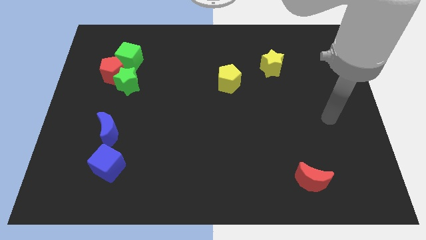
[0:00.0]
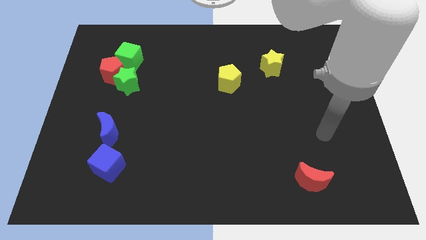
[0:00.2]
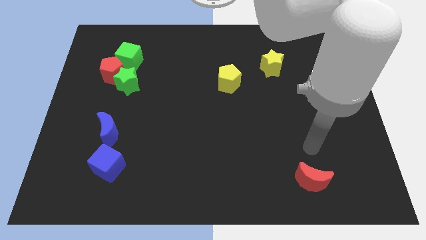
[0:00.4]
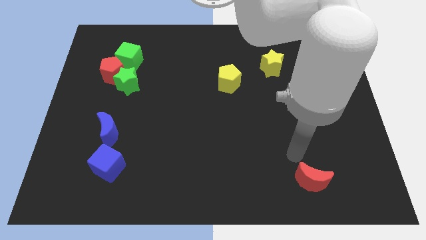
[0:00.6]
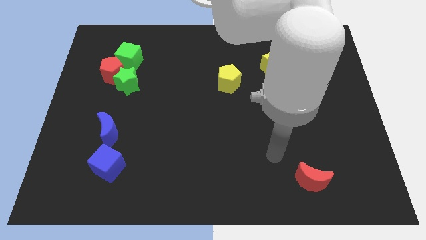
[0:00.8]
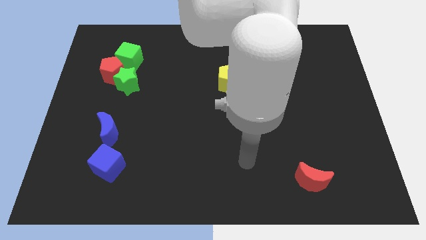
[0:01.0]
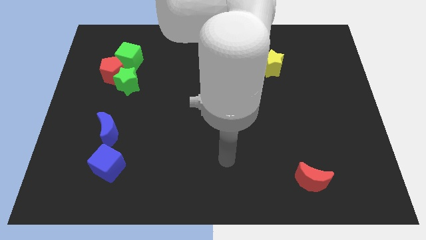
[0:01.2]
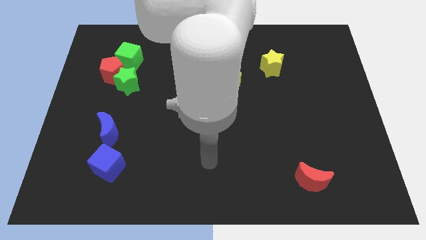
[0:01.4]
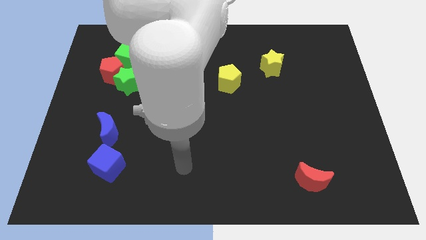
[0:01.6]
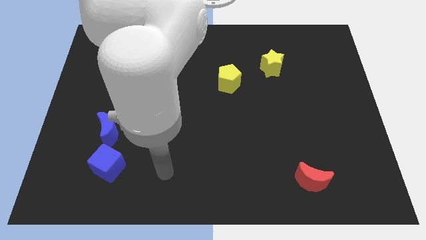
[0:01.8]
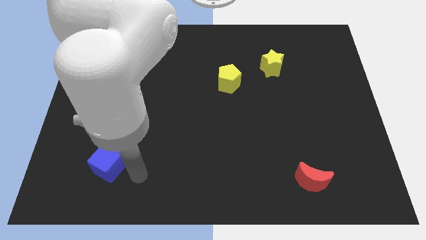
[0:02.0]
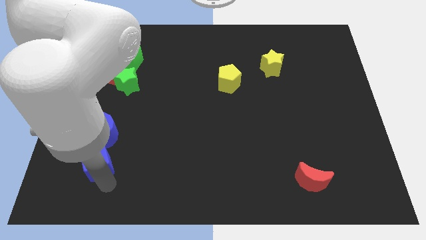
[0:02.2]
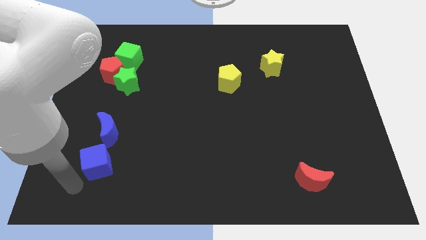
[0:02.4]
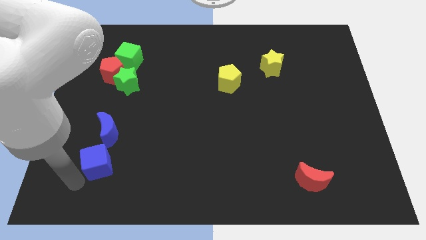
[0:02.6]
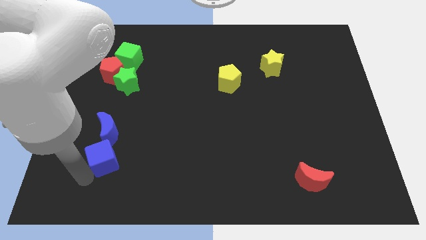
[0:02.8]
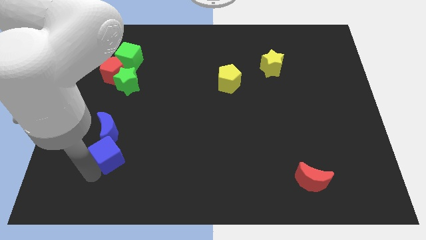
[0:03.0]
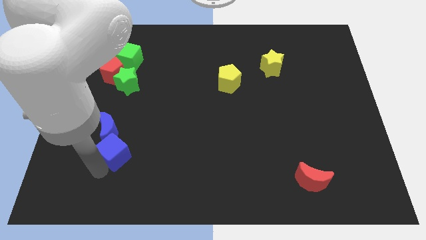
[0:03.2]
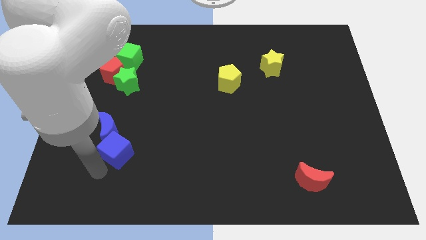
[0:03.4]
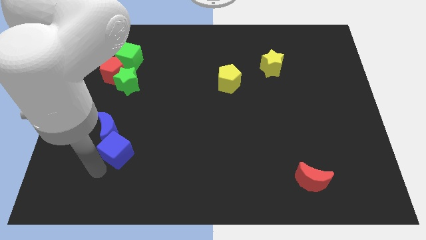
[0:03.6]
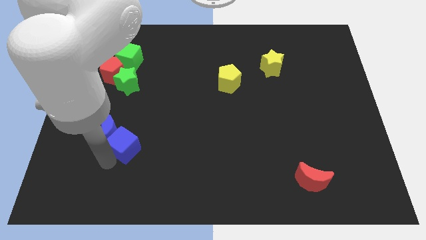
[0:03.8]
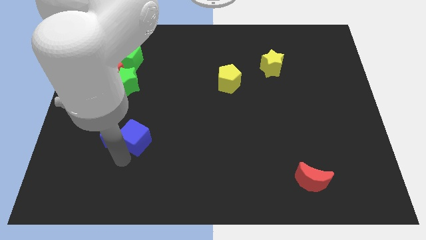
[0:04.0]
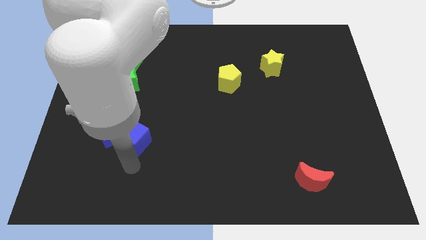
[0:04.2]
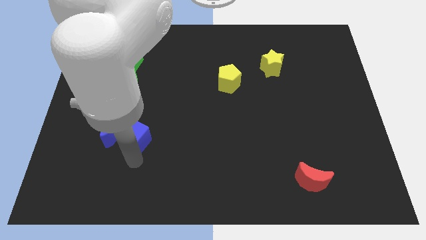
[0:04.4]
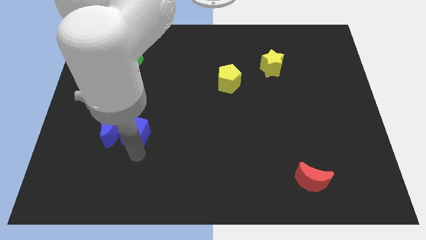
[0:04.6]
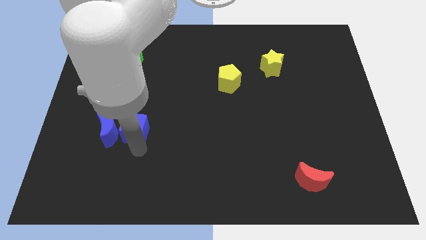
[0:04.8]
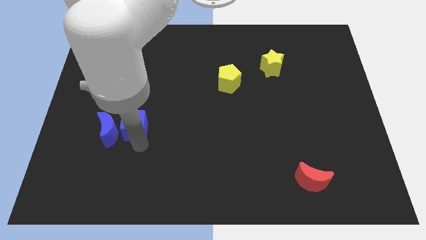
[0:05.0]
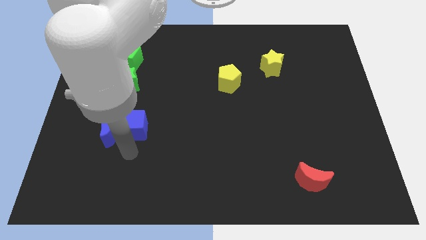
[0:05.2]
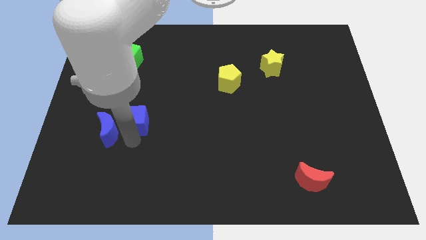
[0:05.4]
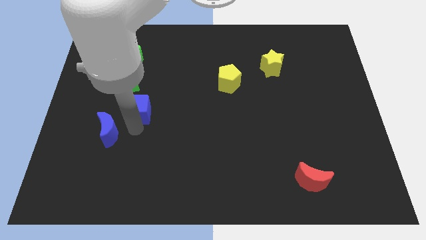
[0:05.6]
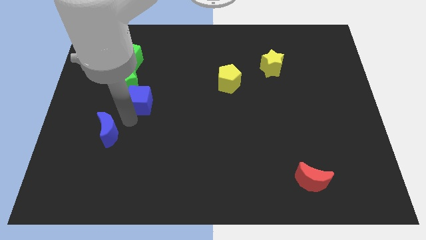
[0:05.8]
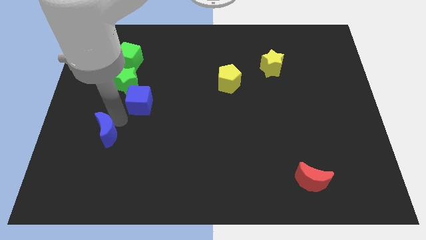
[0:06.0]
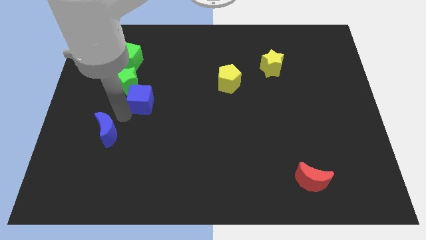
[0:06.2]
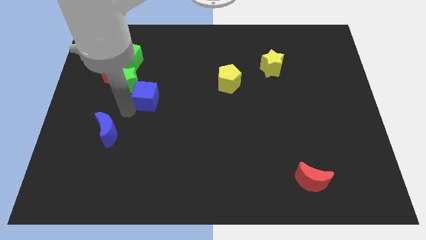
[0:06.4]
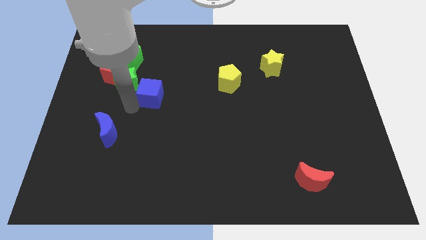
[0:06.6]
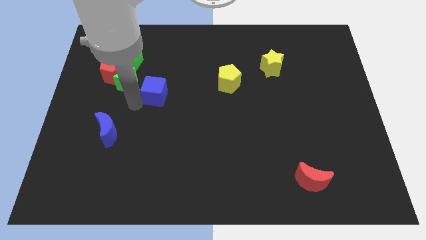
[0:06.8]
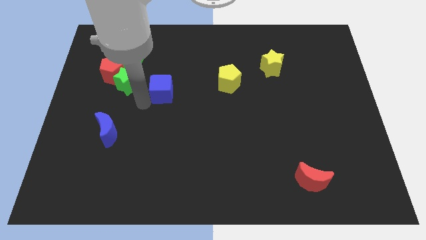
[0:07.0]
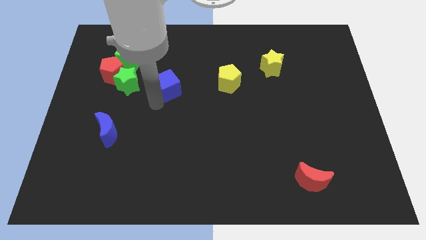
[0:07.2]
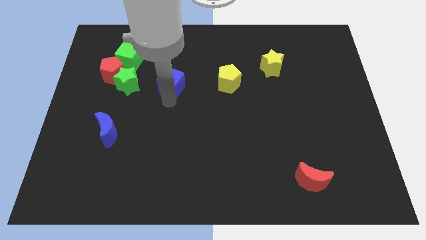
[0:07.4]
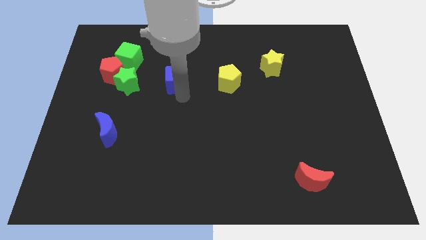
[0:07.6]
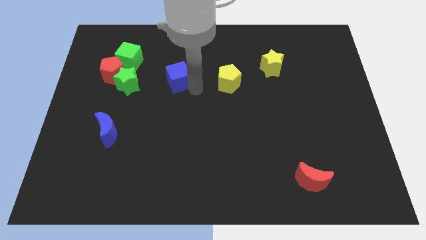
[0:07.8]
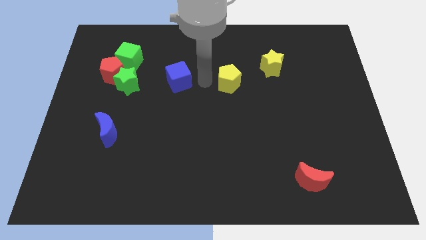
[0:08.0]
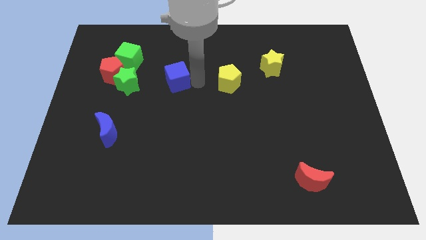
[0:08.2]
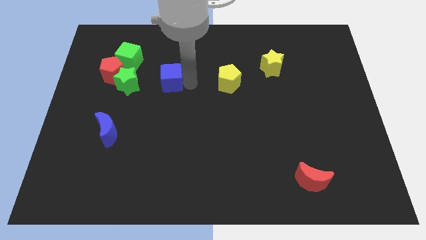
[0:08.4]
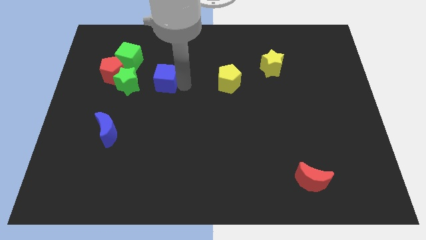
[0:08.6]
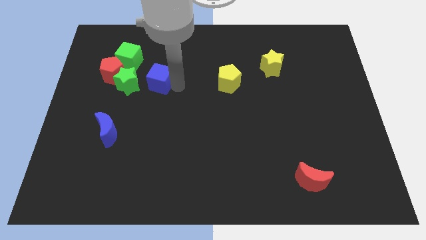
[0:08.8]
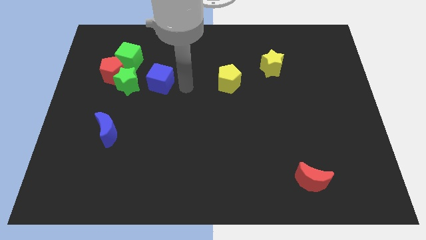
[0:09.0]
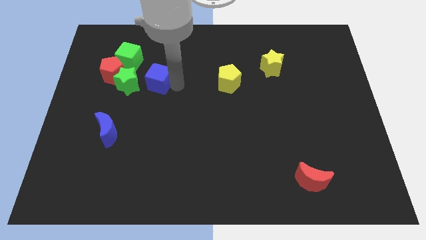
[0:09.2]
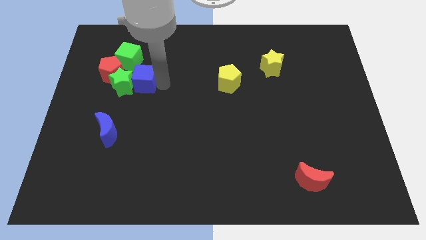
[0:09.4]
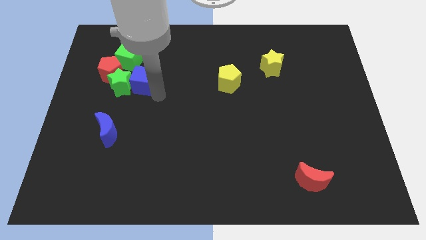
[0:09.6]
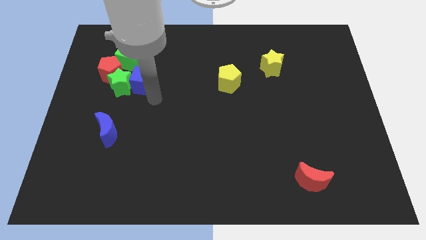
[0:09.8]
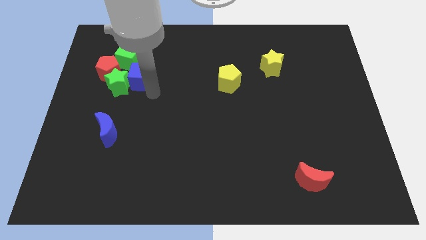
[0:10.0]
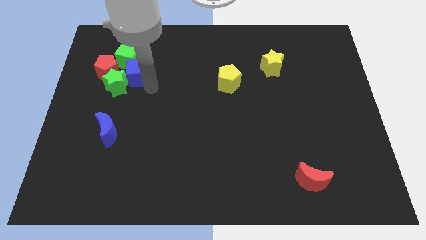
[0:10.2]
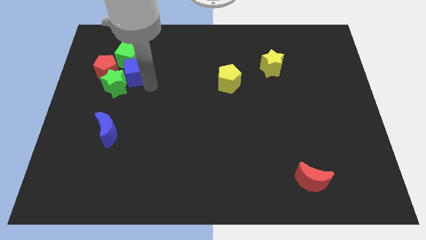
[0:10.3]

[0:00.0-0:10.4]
slide the blue cube towards the green cube

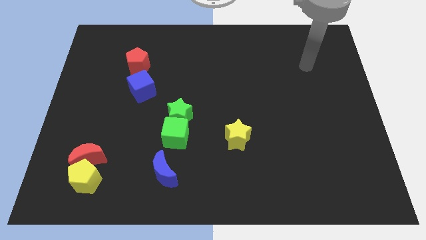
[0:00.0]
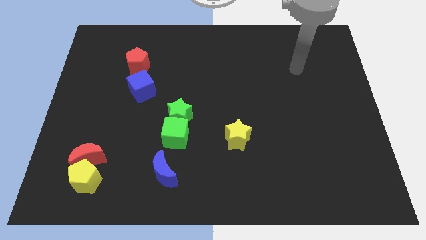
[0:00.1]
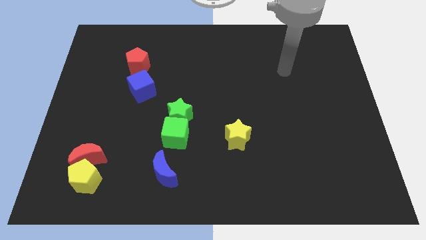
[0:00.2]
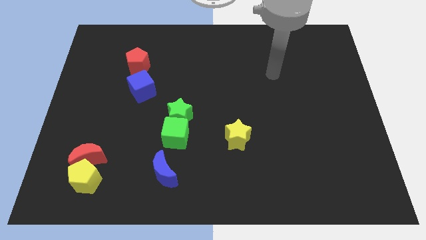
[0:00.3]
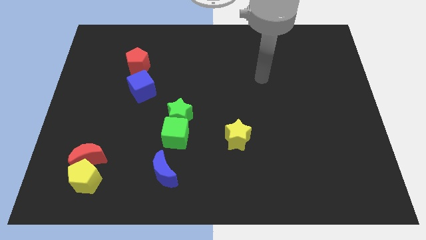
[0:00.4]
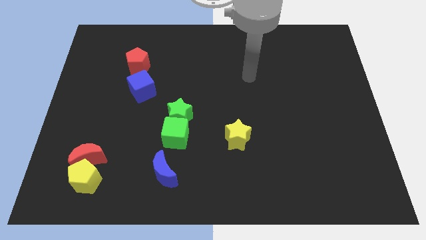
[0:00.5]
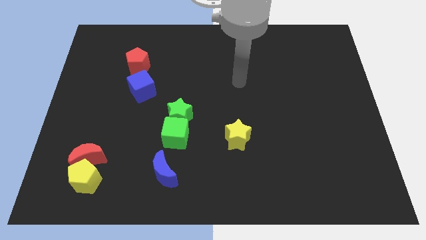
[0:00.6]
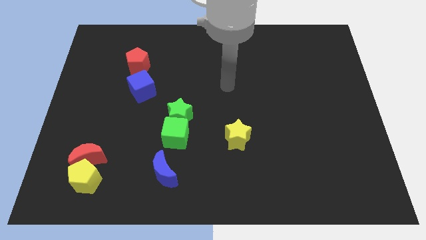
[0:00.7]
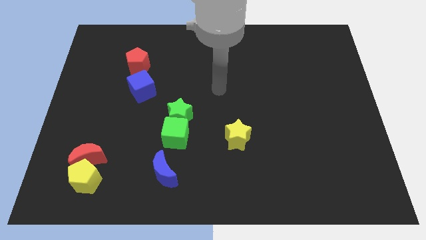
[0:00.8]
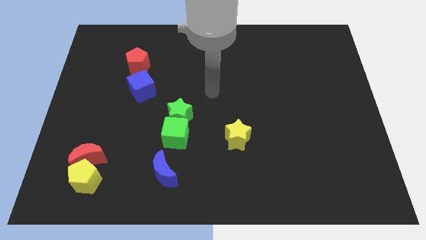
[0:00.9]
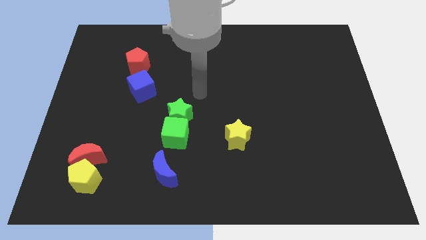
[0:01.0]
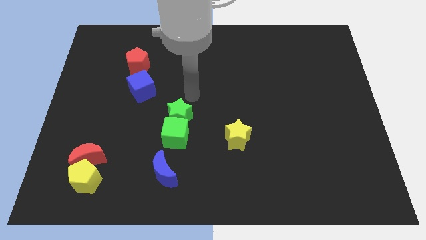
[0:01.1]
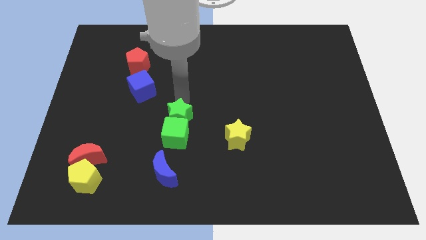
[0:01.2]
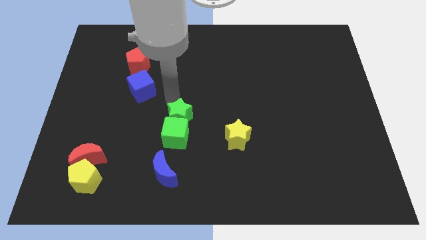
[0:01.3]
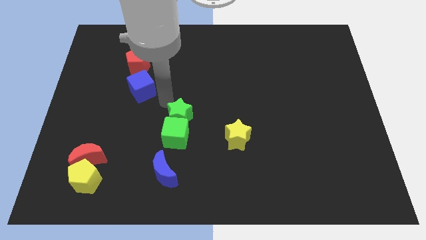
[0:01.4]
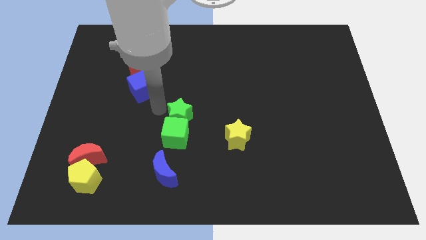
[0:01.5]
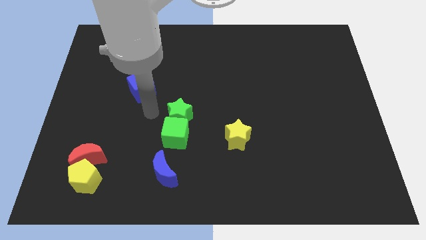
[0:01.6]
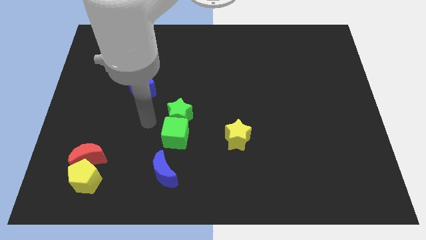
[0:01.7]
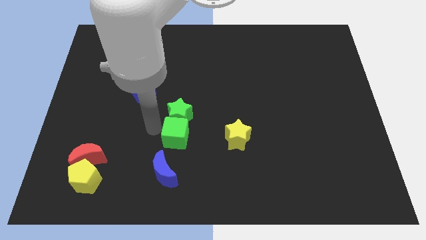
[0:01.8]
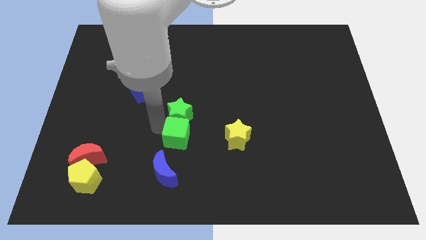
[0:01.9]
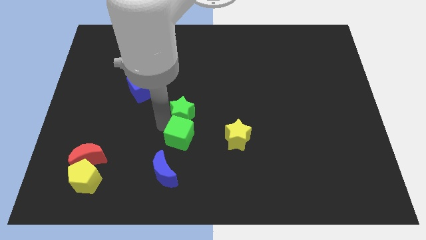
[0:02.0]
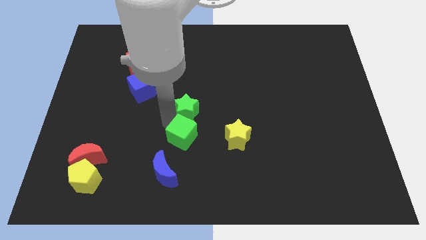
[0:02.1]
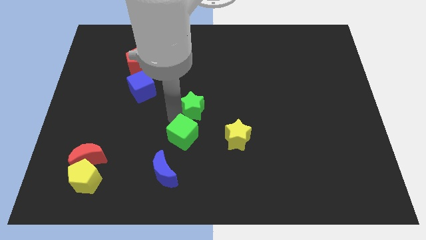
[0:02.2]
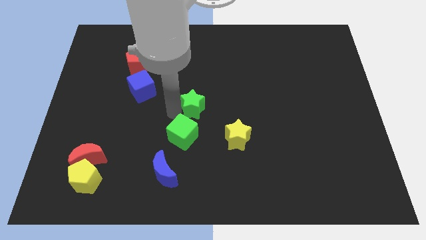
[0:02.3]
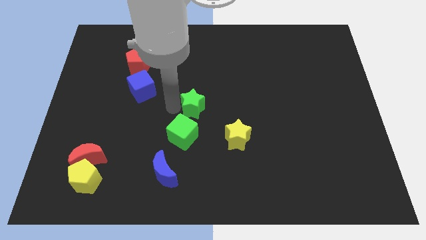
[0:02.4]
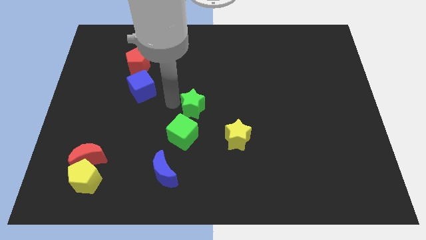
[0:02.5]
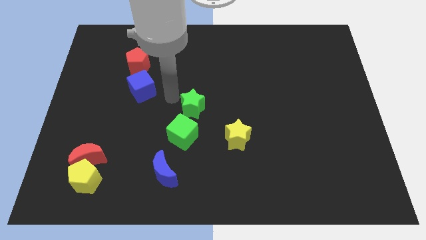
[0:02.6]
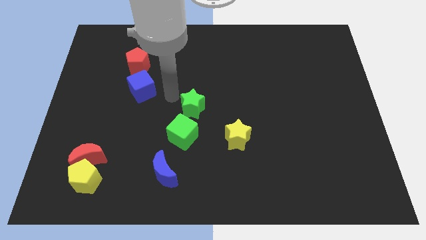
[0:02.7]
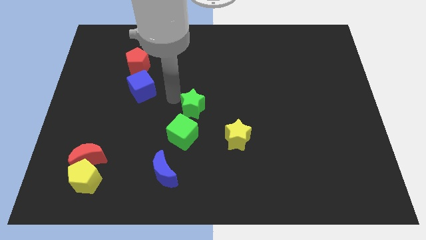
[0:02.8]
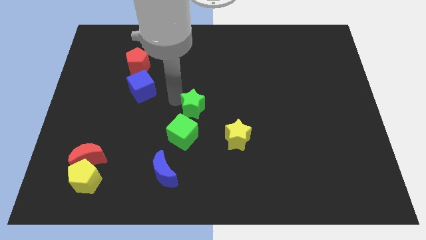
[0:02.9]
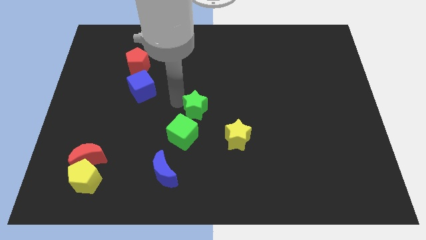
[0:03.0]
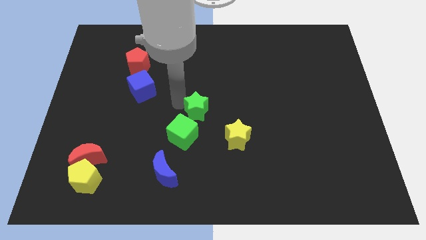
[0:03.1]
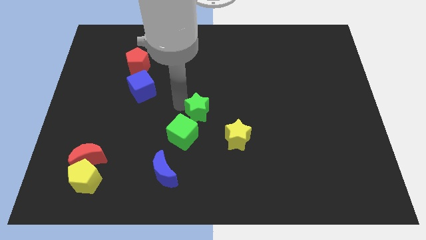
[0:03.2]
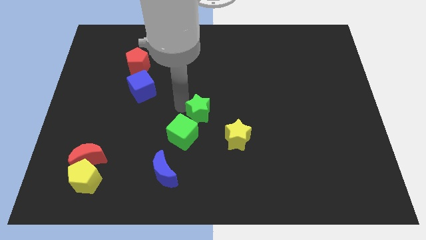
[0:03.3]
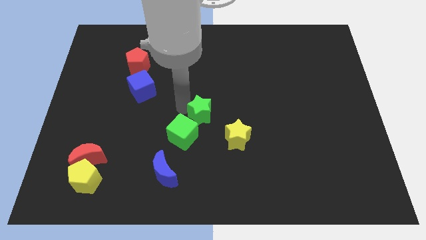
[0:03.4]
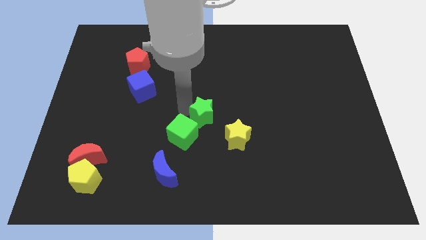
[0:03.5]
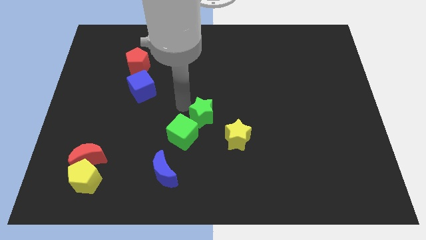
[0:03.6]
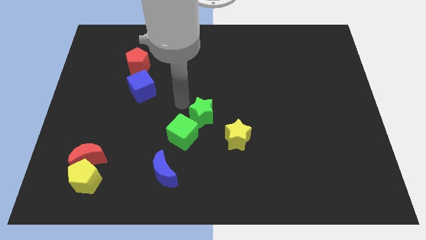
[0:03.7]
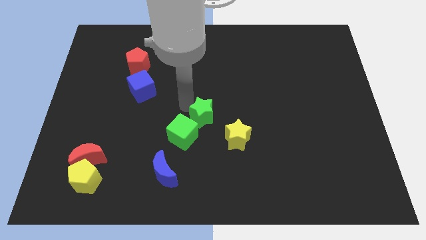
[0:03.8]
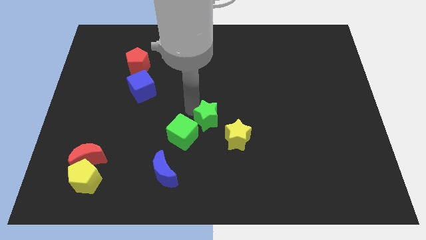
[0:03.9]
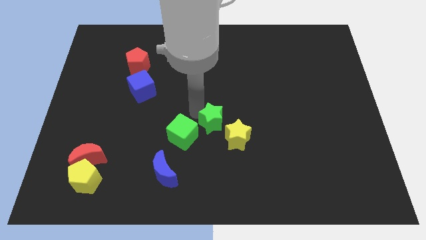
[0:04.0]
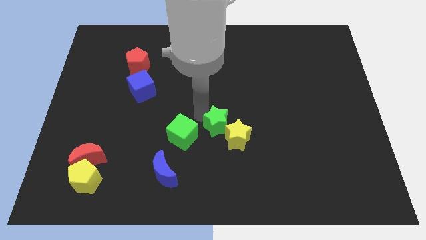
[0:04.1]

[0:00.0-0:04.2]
move the green star next to the yellow star
